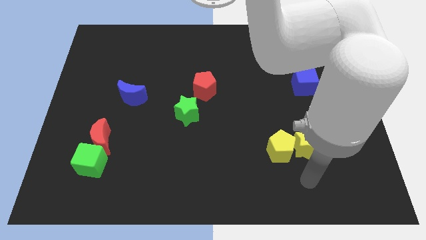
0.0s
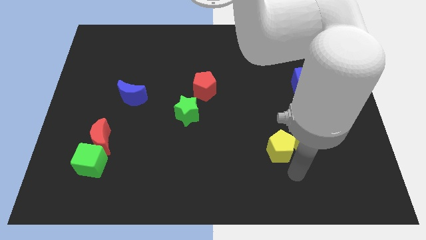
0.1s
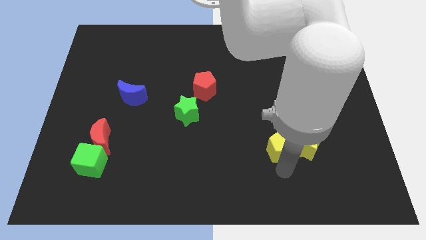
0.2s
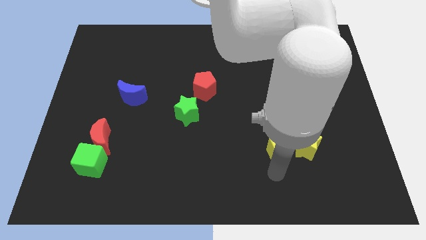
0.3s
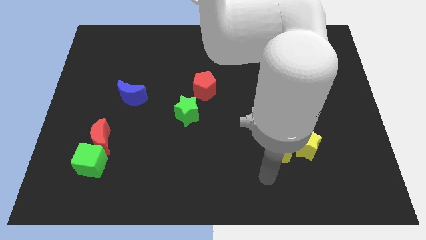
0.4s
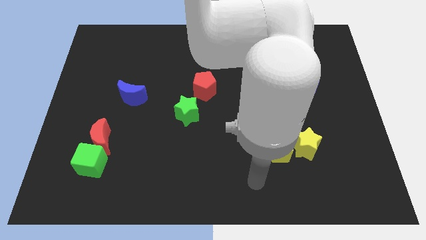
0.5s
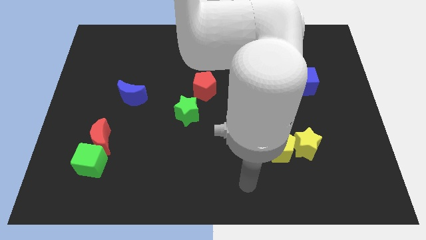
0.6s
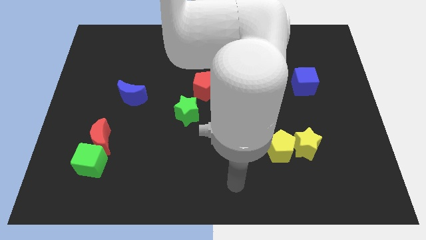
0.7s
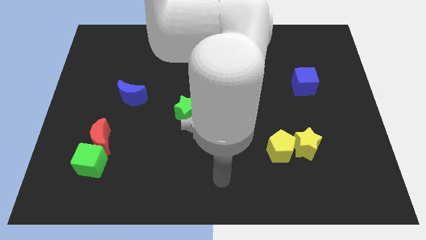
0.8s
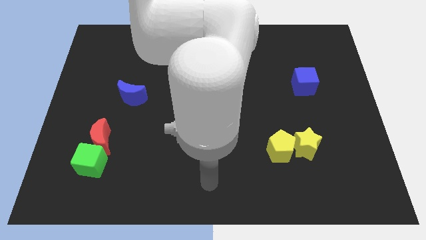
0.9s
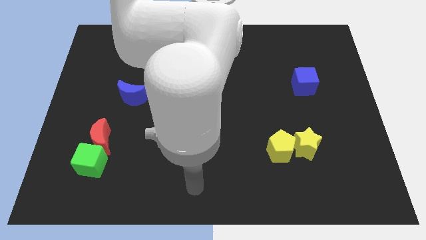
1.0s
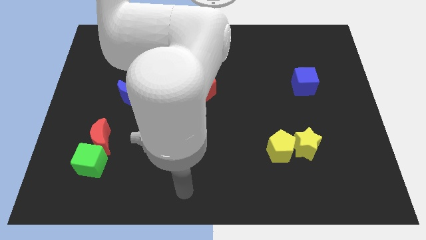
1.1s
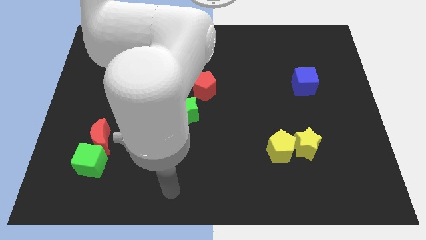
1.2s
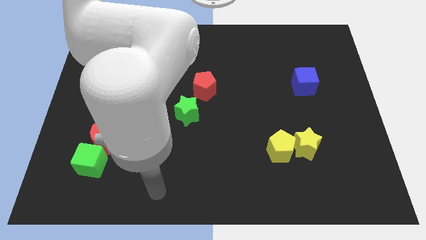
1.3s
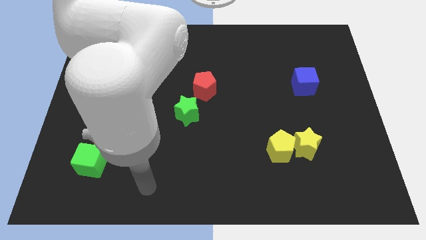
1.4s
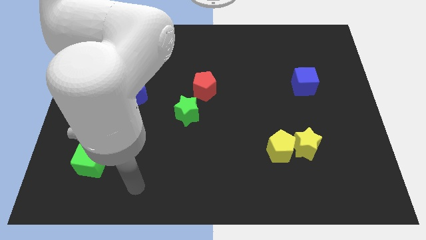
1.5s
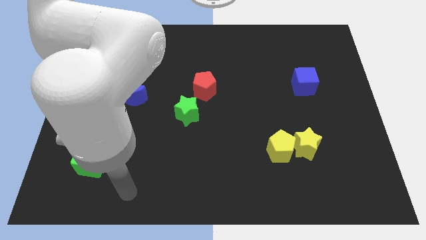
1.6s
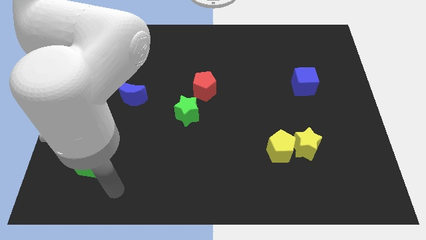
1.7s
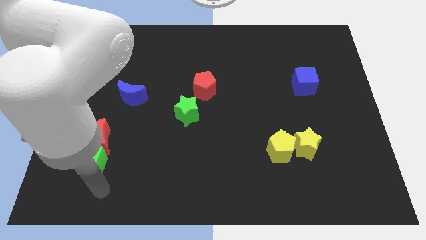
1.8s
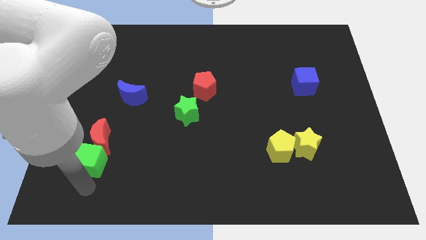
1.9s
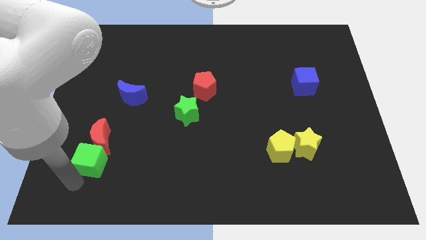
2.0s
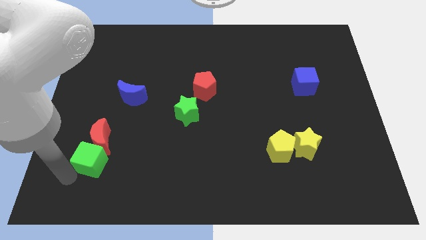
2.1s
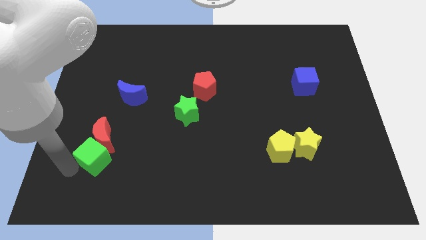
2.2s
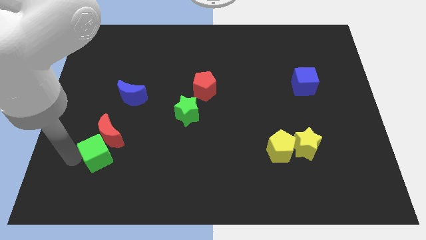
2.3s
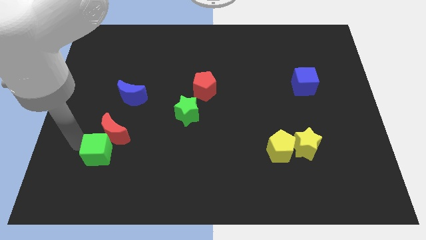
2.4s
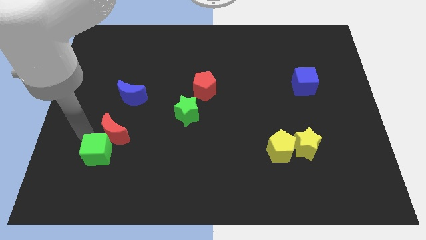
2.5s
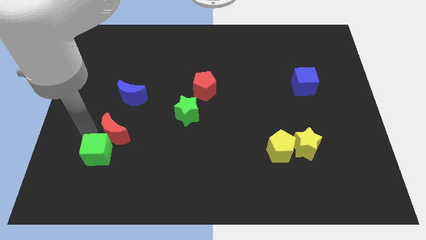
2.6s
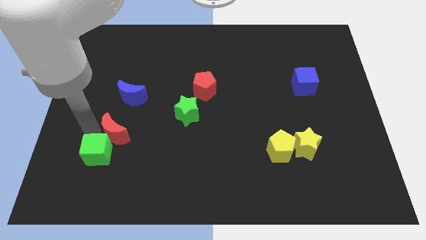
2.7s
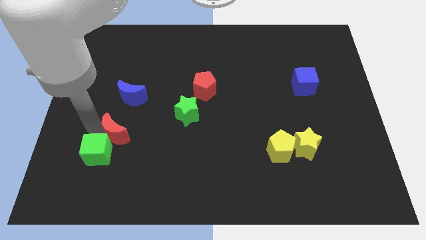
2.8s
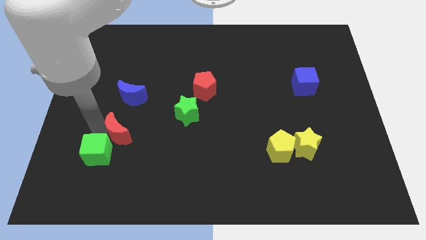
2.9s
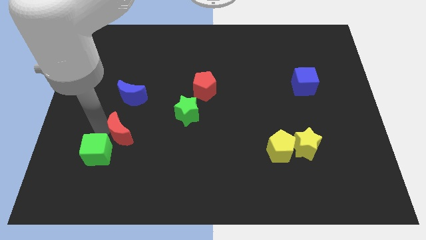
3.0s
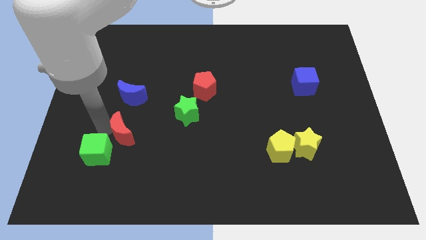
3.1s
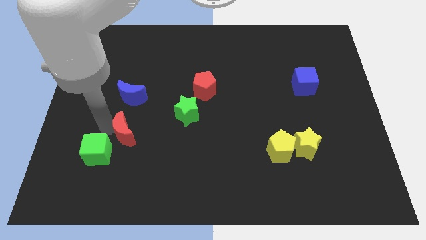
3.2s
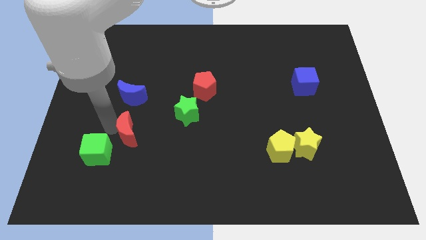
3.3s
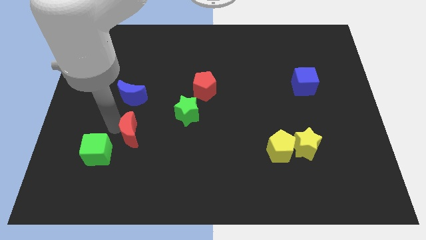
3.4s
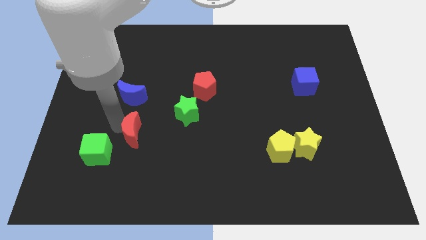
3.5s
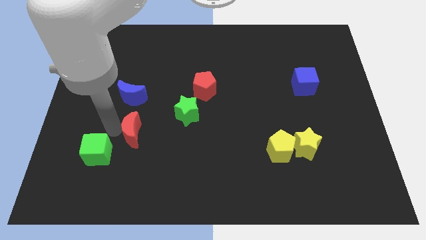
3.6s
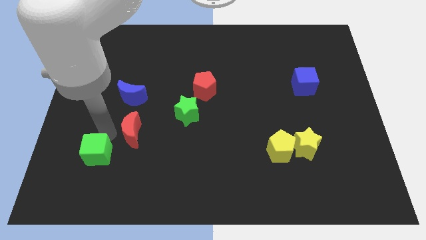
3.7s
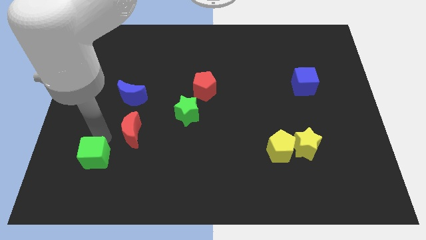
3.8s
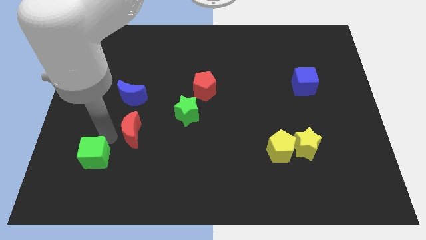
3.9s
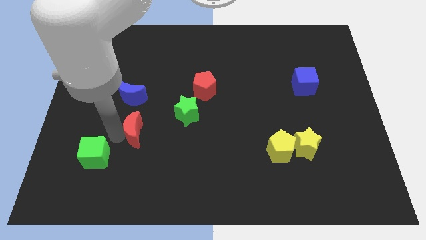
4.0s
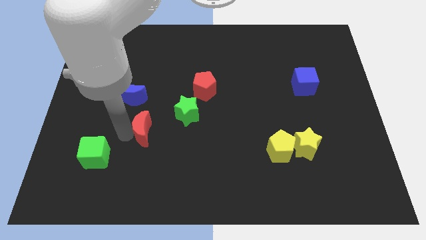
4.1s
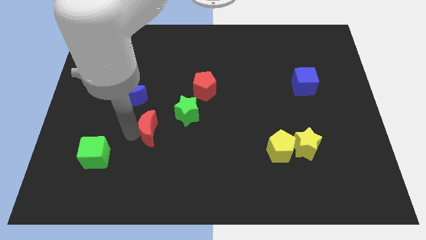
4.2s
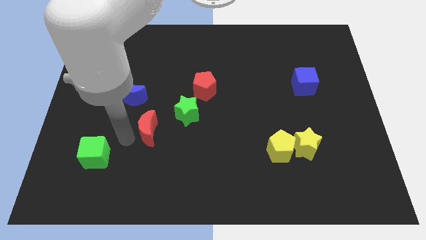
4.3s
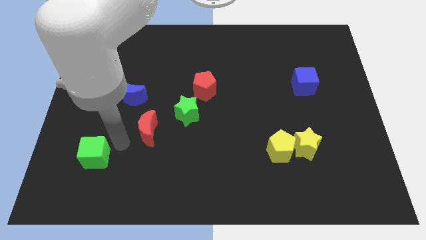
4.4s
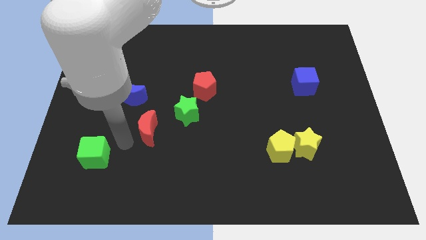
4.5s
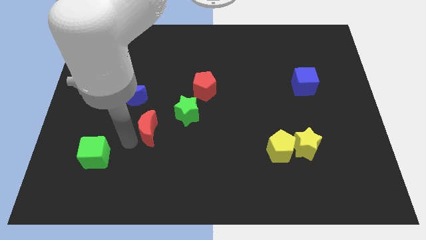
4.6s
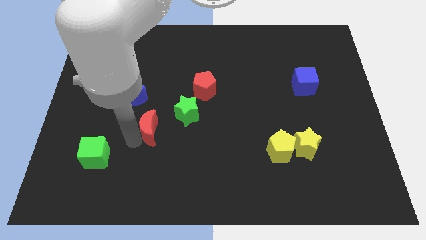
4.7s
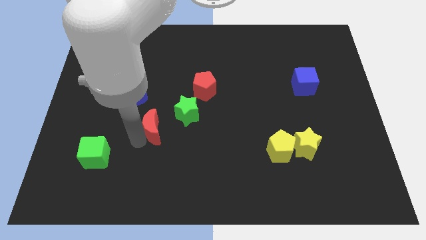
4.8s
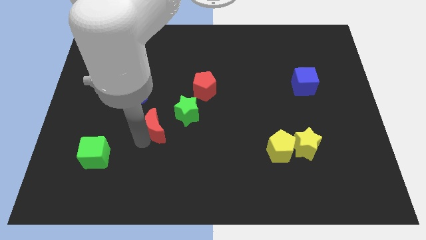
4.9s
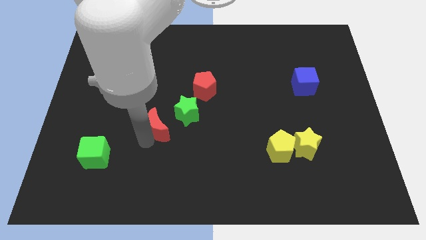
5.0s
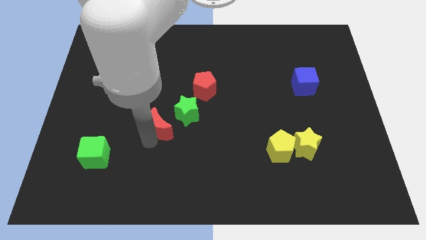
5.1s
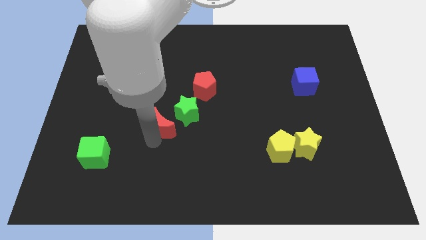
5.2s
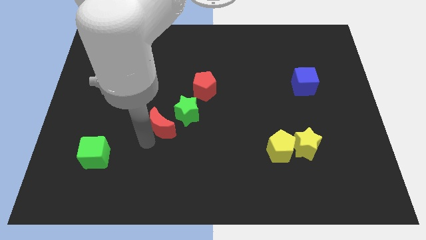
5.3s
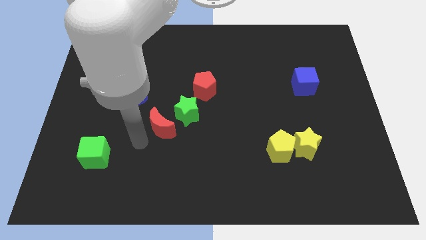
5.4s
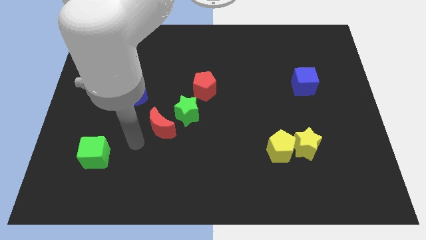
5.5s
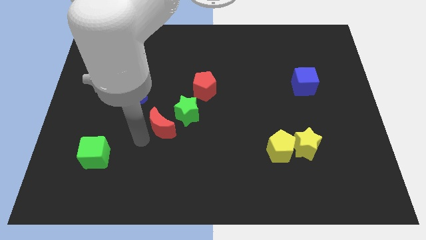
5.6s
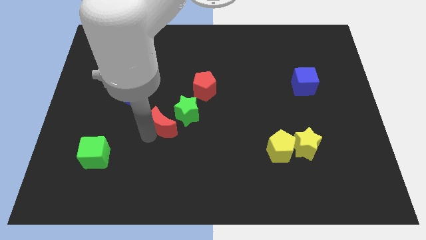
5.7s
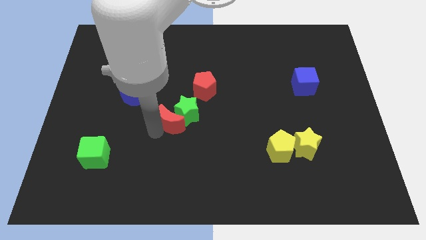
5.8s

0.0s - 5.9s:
move the red moon close to the green star
